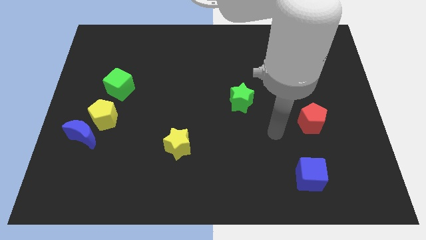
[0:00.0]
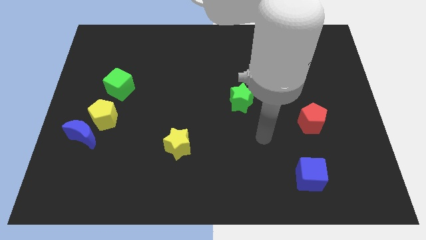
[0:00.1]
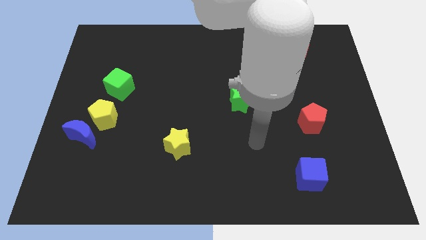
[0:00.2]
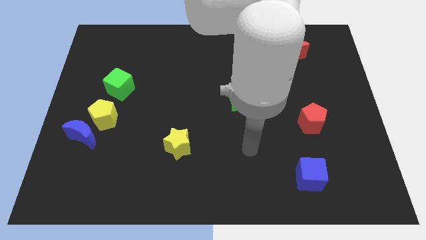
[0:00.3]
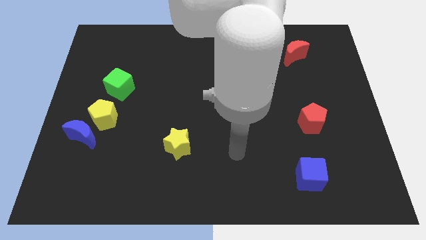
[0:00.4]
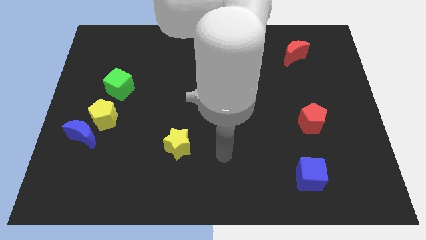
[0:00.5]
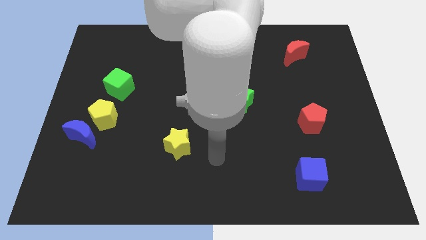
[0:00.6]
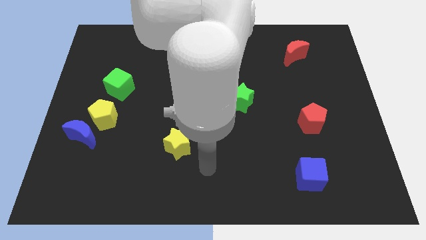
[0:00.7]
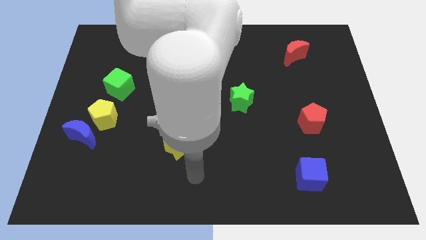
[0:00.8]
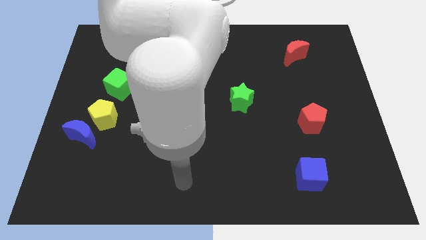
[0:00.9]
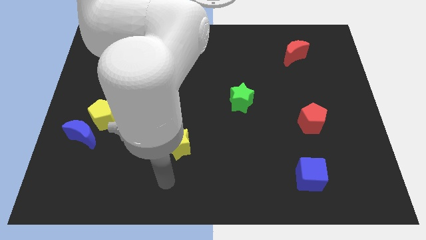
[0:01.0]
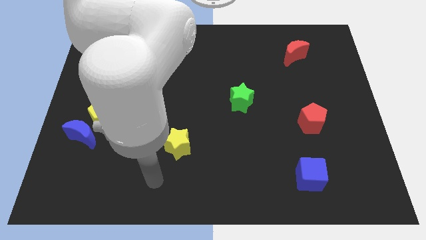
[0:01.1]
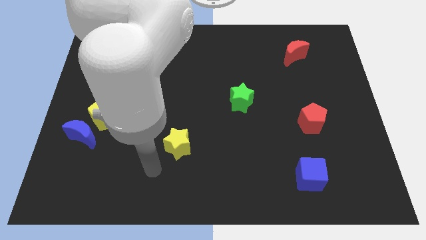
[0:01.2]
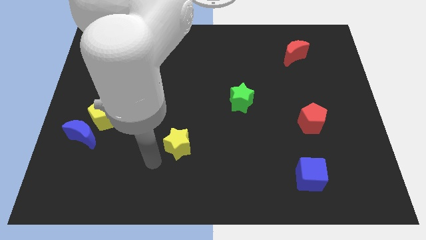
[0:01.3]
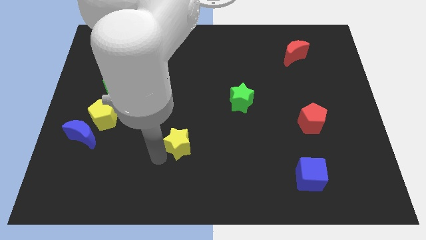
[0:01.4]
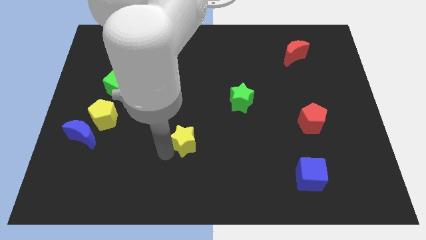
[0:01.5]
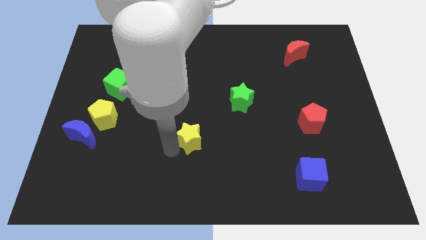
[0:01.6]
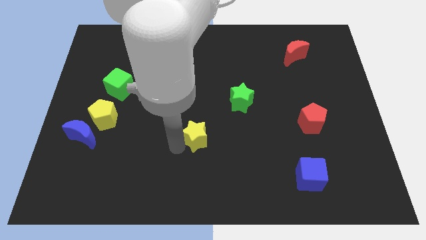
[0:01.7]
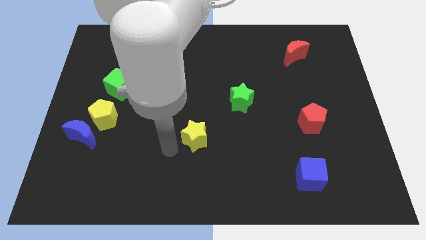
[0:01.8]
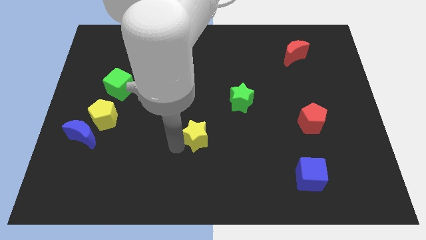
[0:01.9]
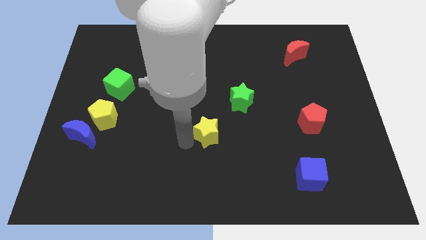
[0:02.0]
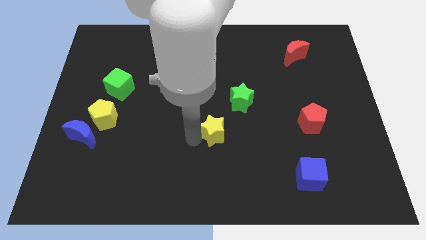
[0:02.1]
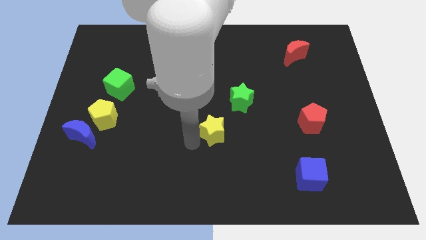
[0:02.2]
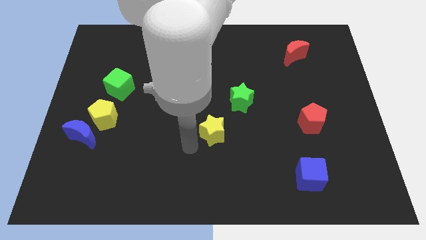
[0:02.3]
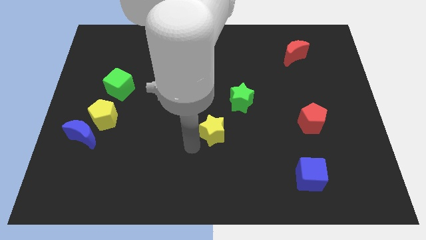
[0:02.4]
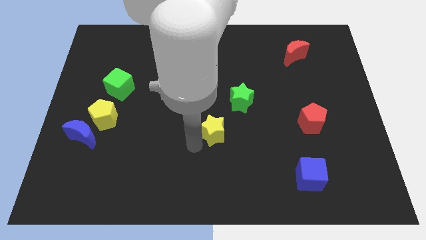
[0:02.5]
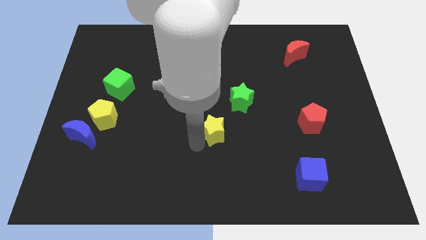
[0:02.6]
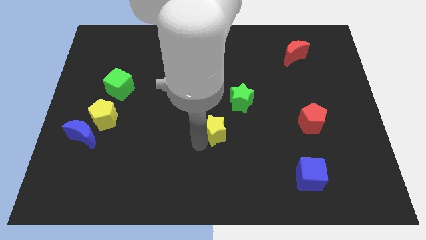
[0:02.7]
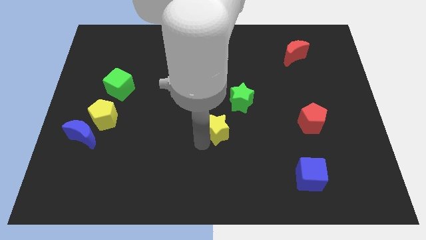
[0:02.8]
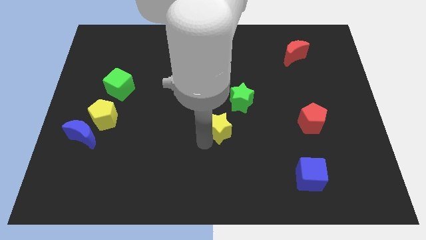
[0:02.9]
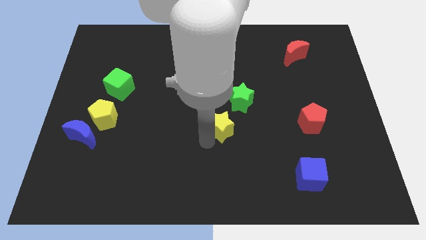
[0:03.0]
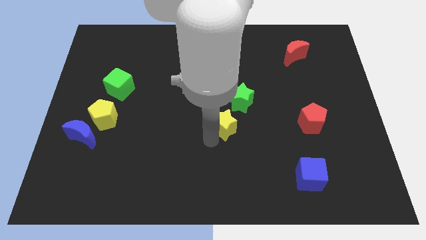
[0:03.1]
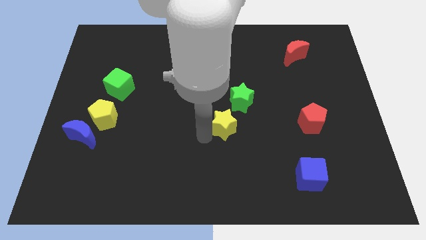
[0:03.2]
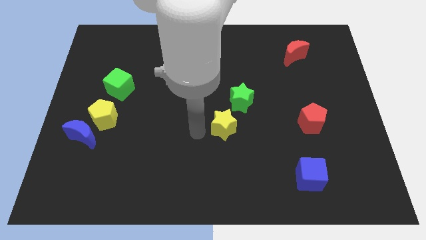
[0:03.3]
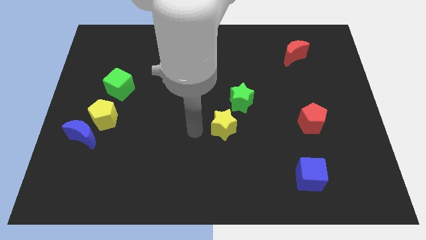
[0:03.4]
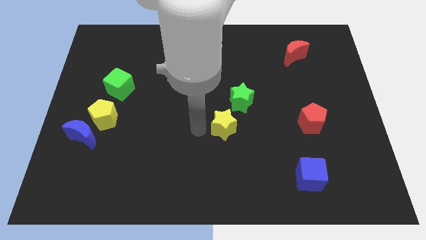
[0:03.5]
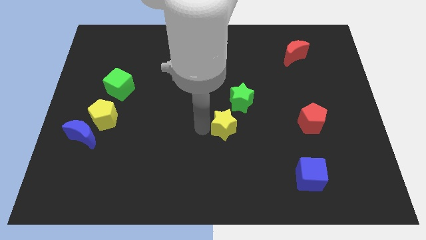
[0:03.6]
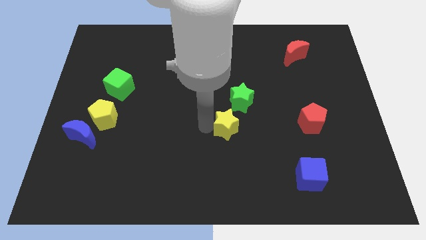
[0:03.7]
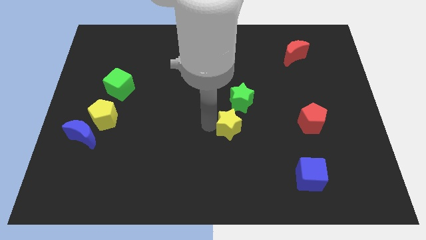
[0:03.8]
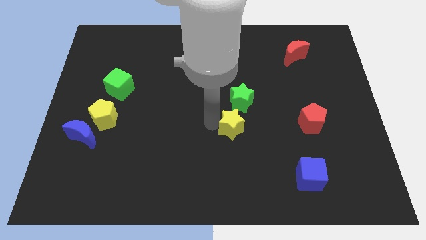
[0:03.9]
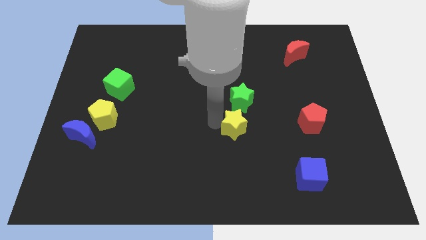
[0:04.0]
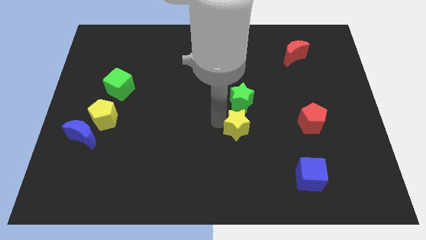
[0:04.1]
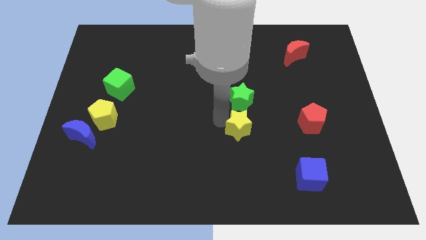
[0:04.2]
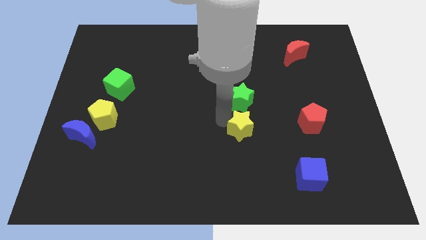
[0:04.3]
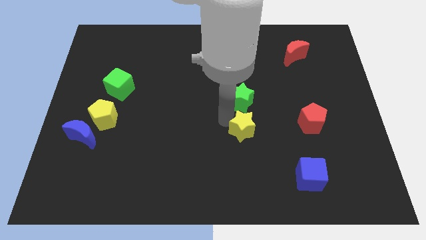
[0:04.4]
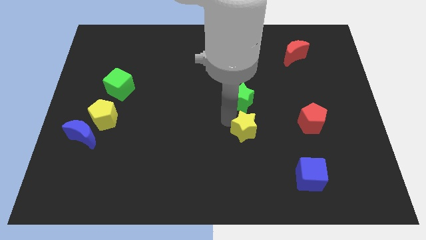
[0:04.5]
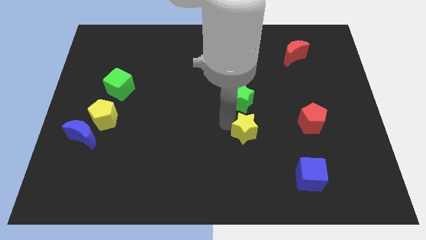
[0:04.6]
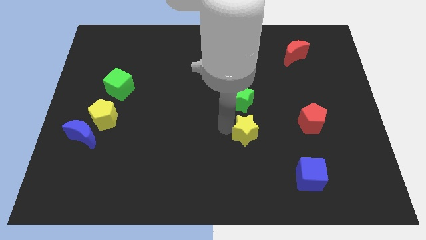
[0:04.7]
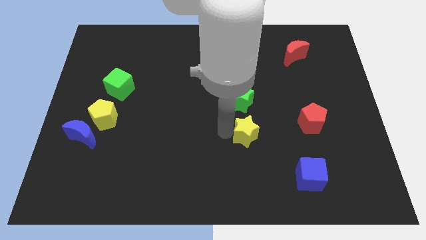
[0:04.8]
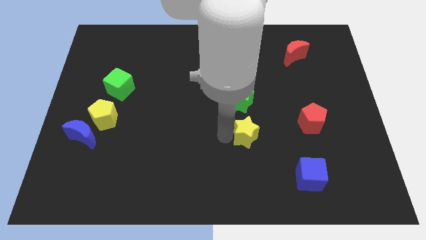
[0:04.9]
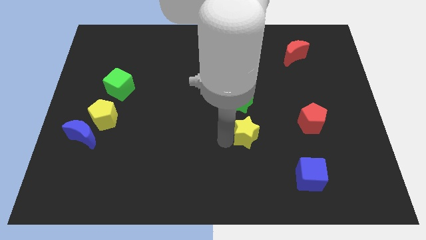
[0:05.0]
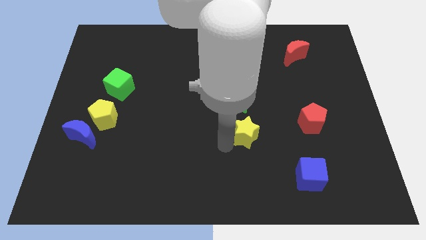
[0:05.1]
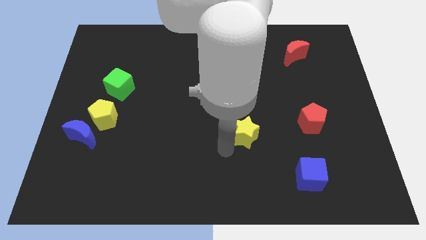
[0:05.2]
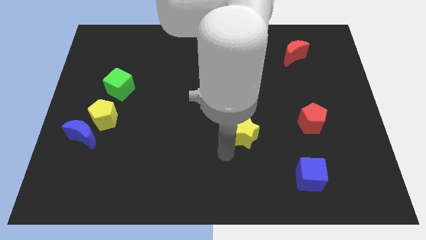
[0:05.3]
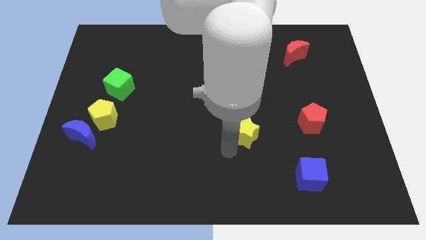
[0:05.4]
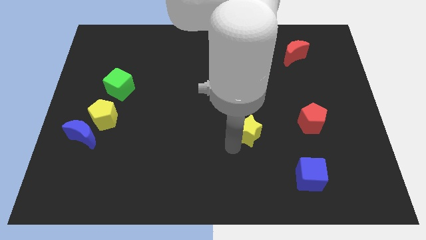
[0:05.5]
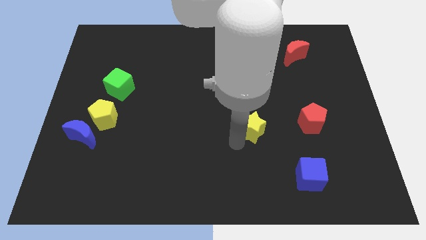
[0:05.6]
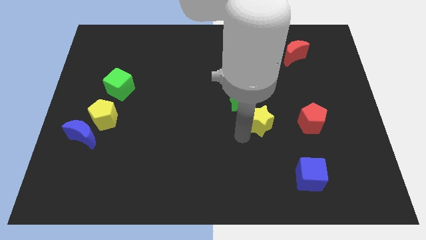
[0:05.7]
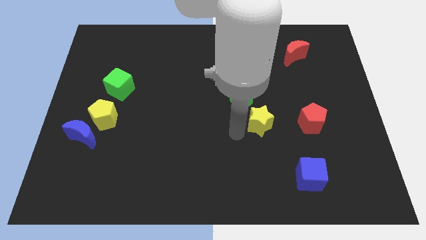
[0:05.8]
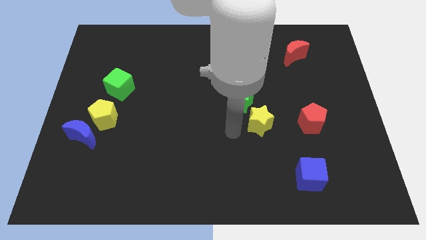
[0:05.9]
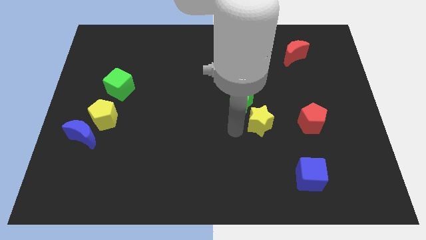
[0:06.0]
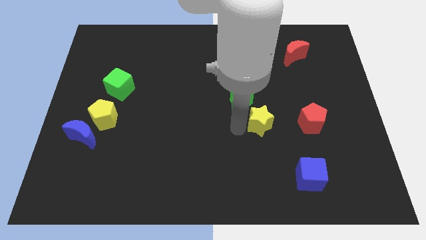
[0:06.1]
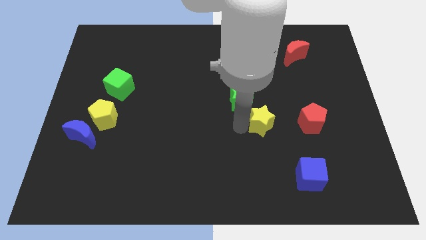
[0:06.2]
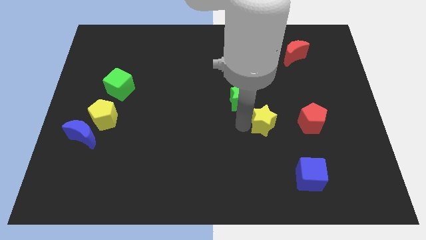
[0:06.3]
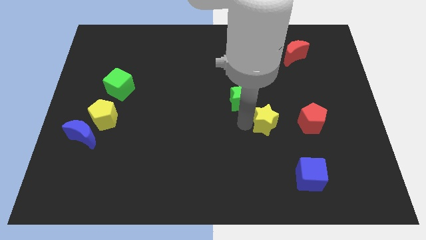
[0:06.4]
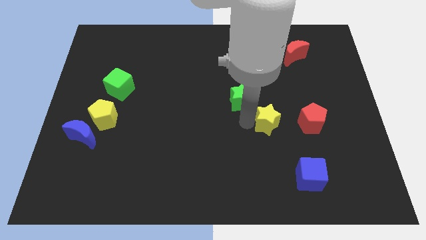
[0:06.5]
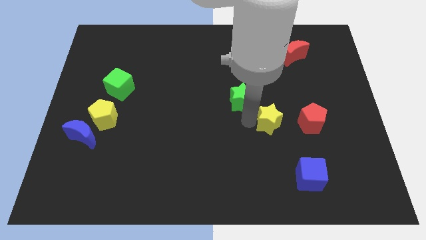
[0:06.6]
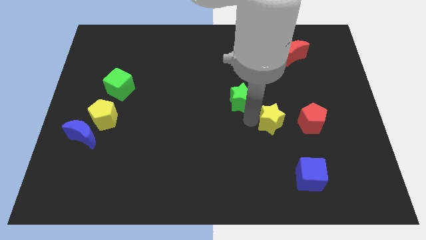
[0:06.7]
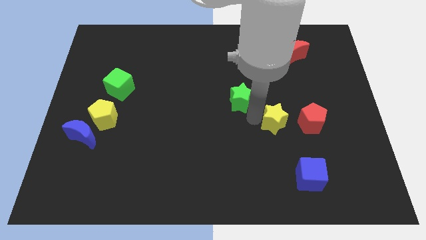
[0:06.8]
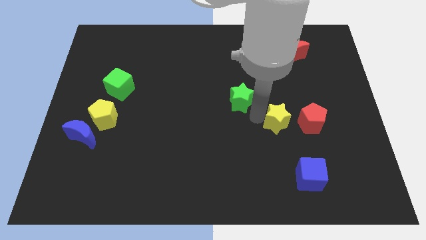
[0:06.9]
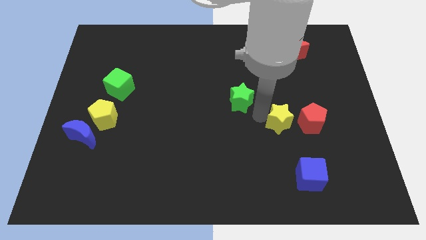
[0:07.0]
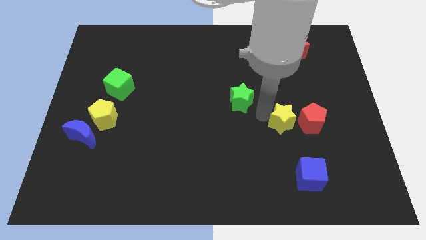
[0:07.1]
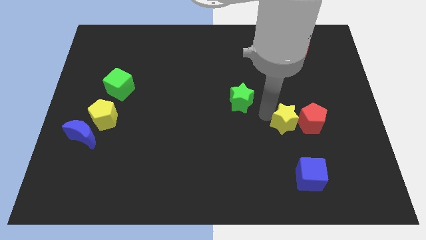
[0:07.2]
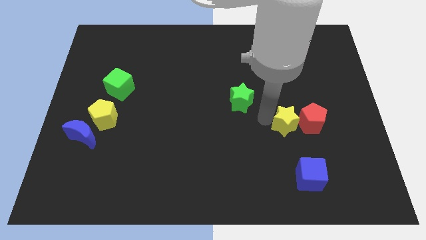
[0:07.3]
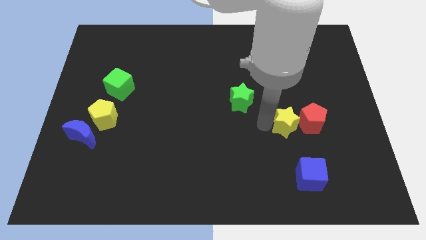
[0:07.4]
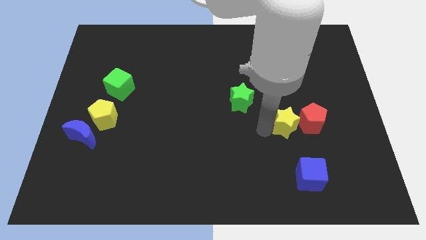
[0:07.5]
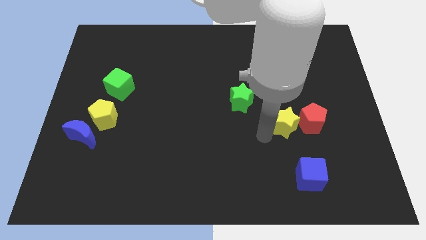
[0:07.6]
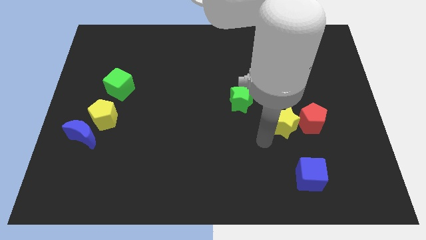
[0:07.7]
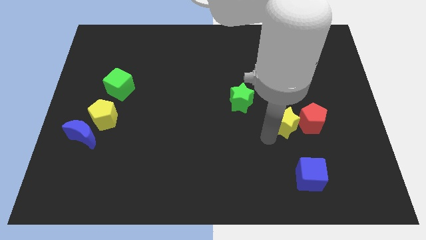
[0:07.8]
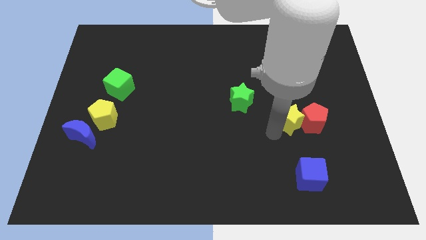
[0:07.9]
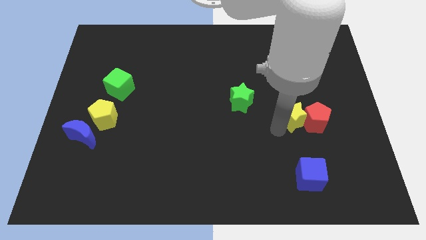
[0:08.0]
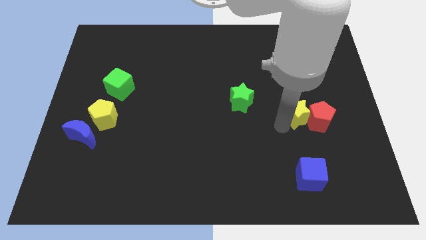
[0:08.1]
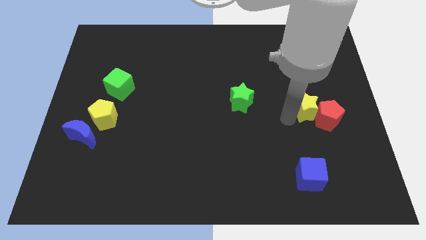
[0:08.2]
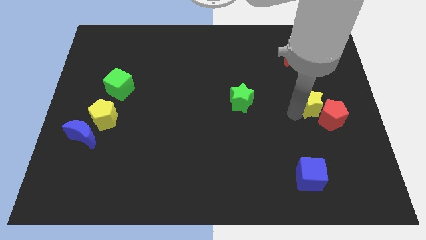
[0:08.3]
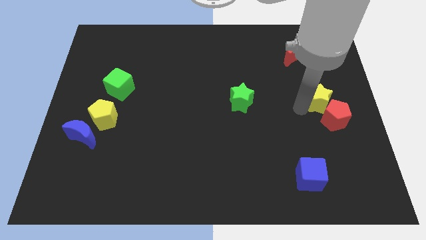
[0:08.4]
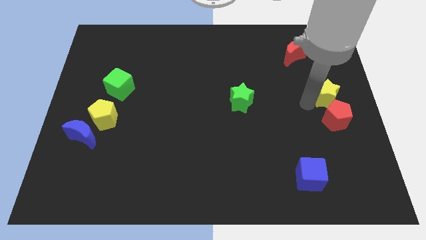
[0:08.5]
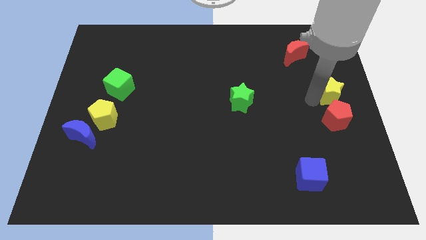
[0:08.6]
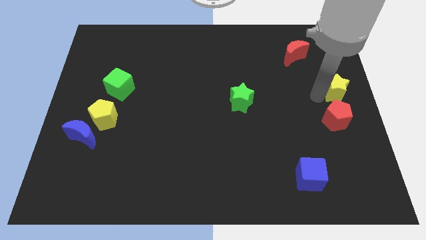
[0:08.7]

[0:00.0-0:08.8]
push the yellow star diagonally up and to the right of the red pentagon
